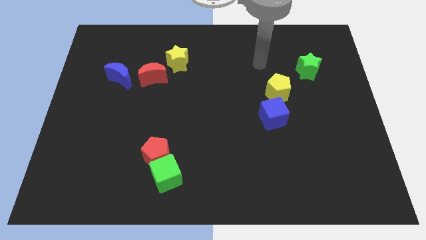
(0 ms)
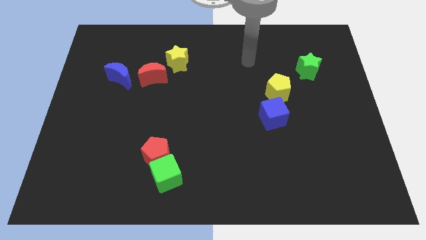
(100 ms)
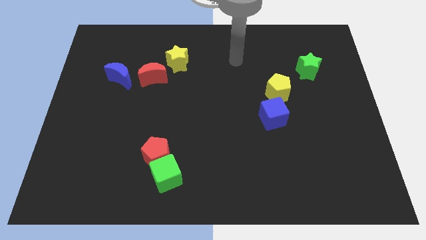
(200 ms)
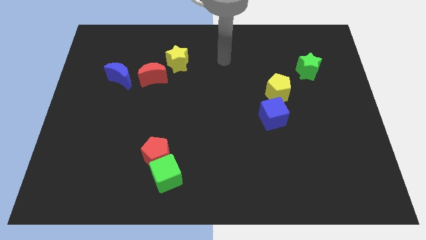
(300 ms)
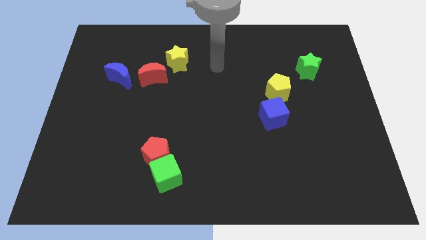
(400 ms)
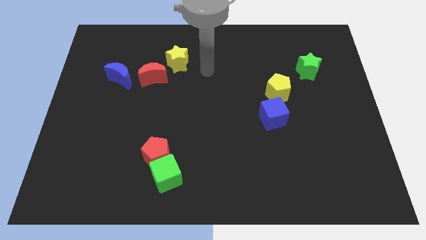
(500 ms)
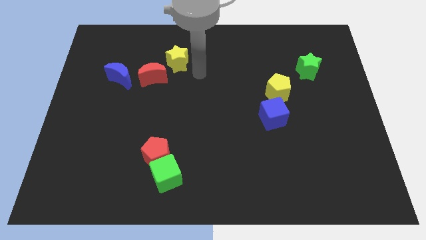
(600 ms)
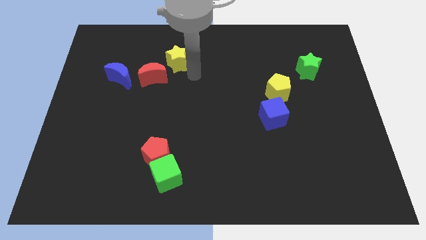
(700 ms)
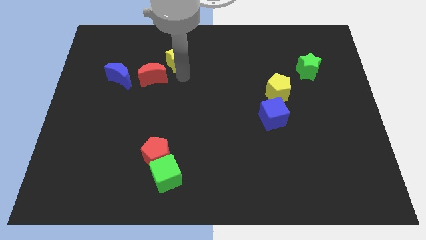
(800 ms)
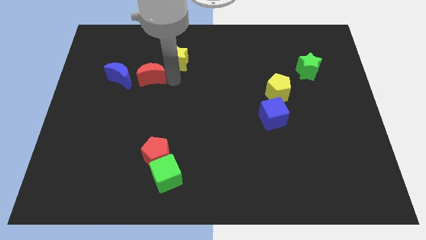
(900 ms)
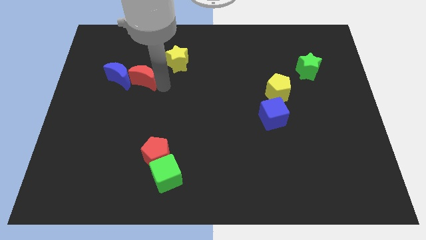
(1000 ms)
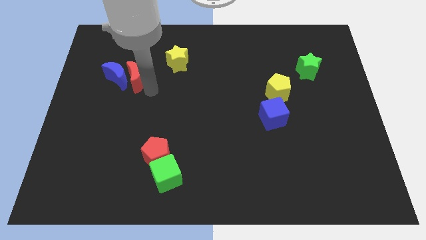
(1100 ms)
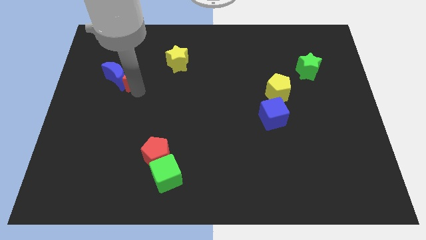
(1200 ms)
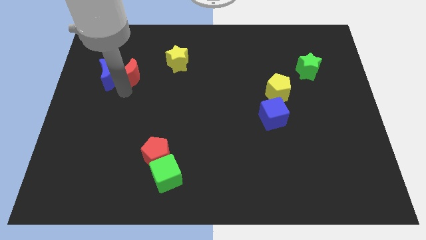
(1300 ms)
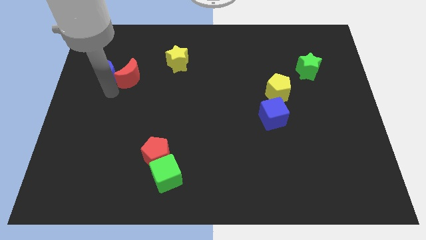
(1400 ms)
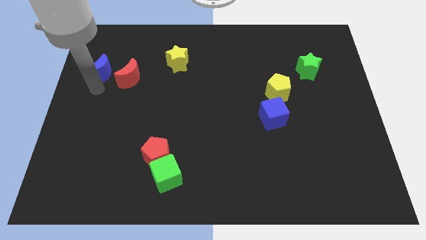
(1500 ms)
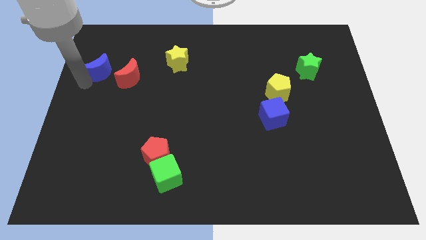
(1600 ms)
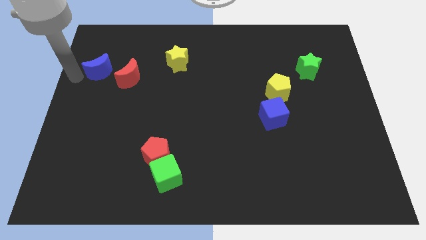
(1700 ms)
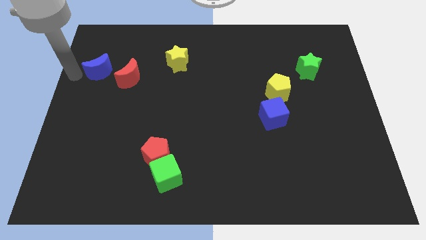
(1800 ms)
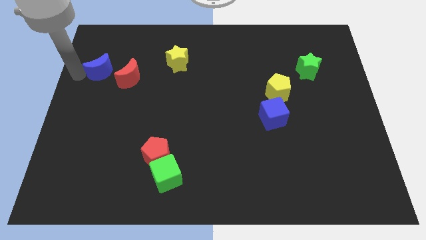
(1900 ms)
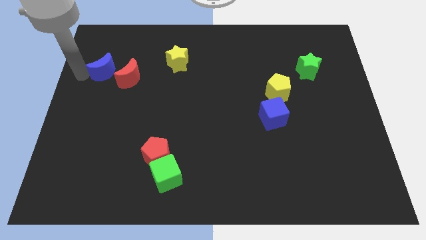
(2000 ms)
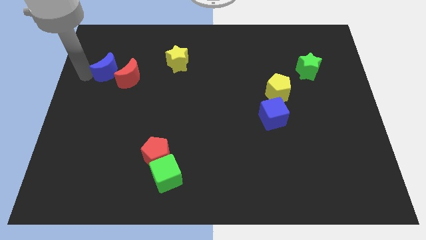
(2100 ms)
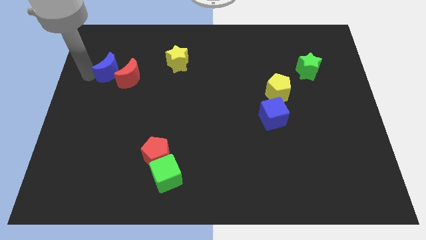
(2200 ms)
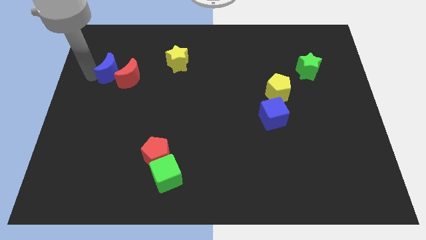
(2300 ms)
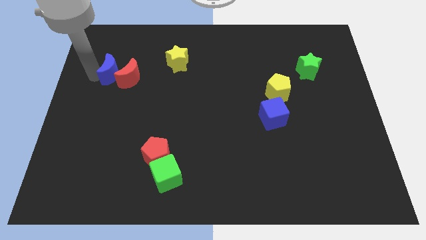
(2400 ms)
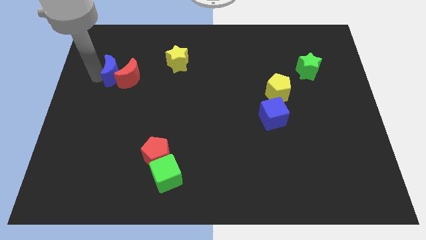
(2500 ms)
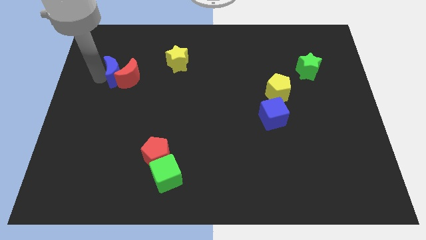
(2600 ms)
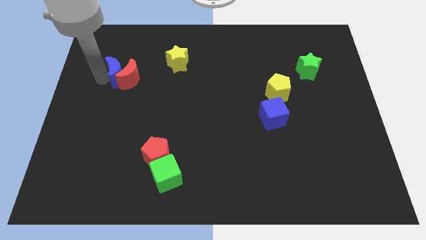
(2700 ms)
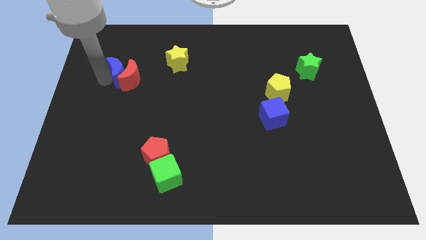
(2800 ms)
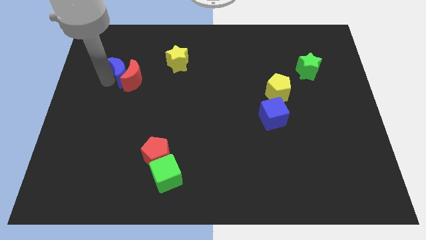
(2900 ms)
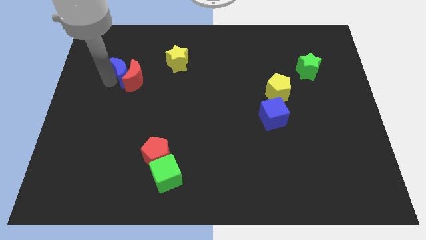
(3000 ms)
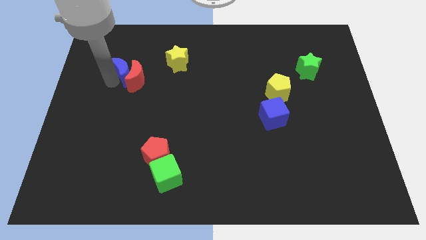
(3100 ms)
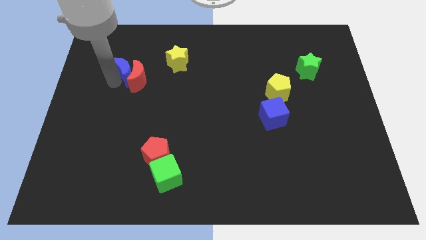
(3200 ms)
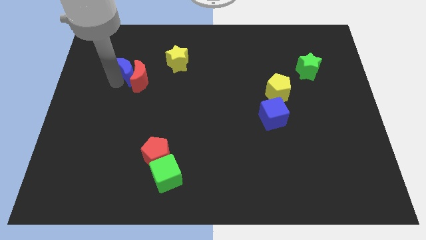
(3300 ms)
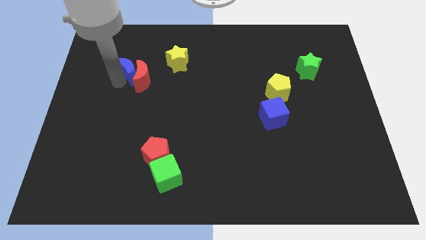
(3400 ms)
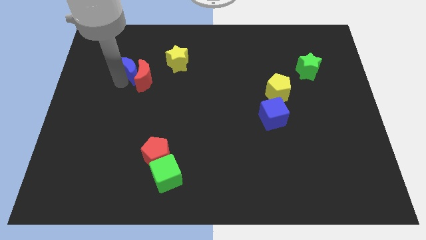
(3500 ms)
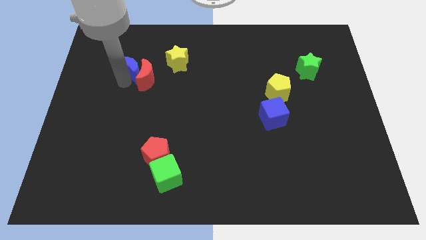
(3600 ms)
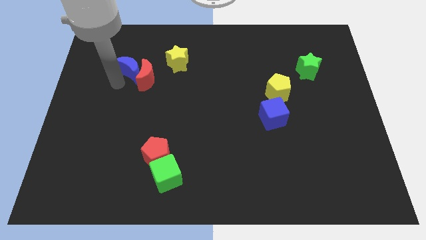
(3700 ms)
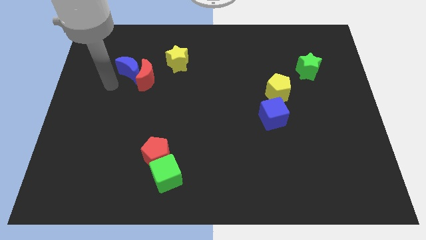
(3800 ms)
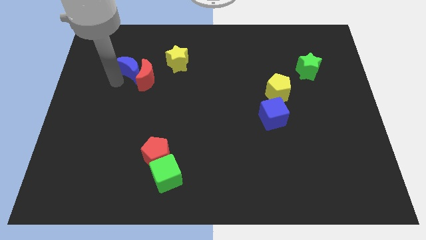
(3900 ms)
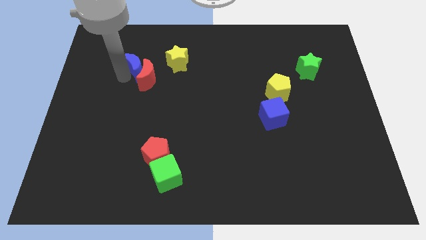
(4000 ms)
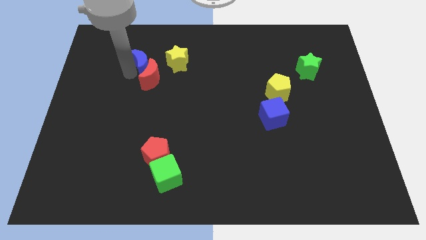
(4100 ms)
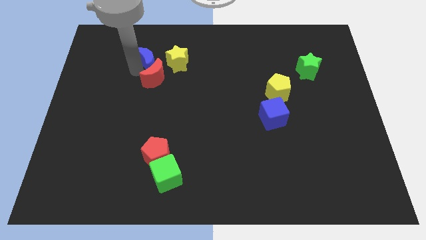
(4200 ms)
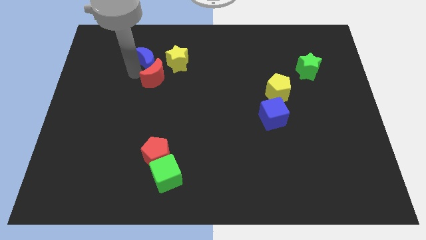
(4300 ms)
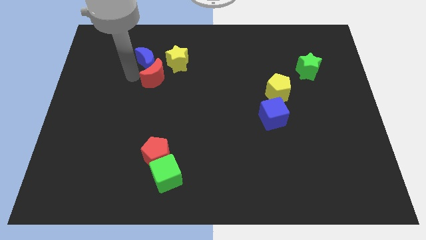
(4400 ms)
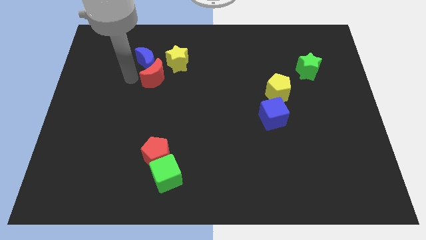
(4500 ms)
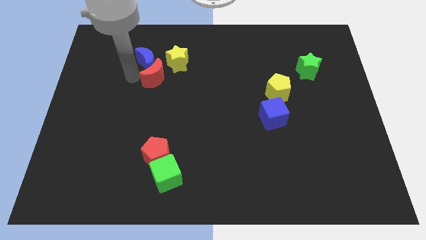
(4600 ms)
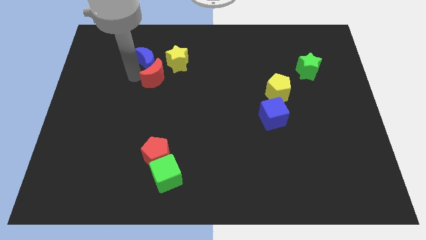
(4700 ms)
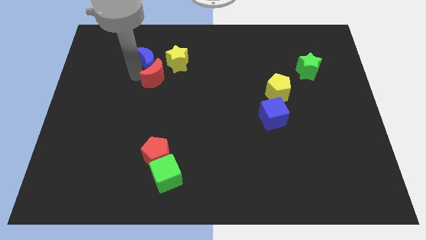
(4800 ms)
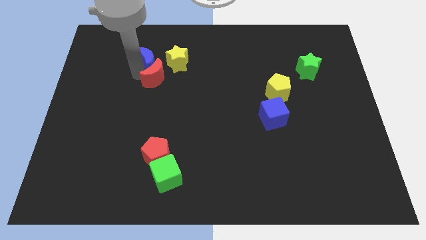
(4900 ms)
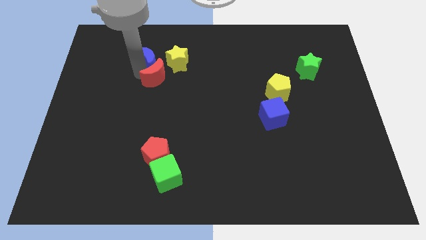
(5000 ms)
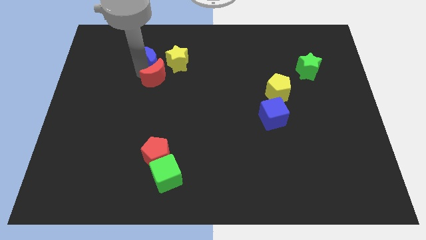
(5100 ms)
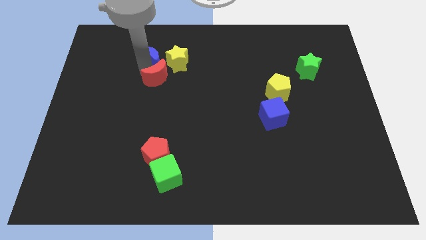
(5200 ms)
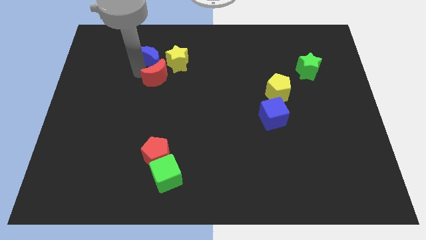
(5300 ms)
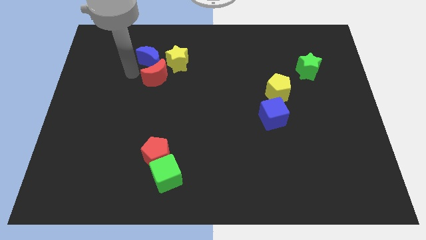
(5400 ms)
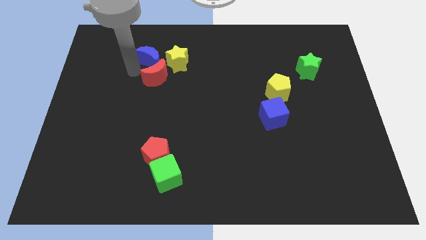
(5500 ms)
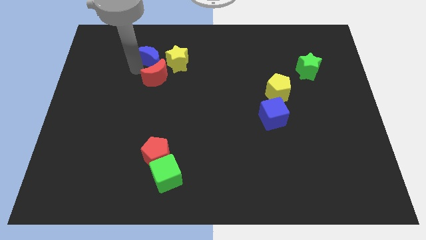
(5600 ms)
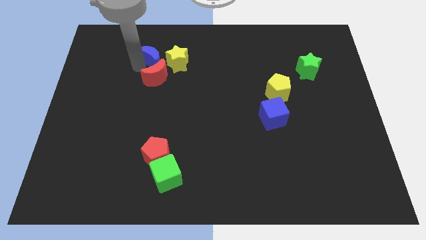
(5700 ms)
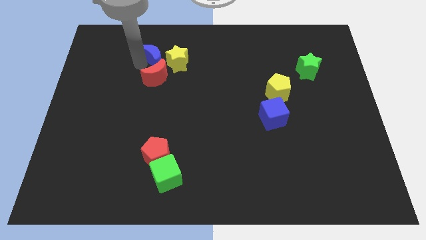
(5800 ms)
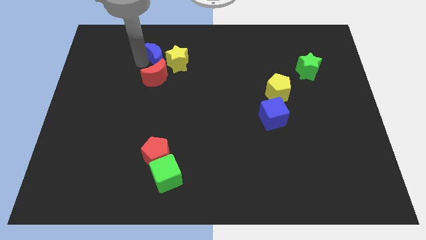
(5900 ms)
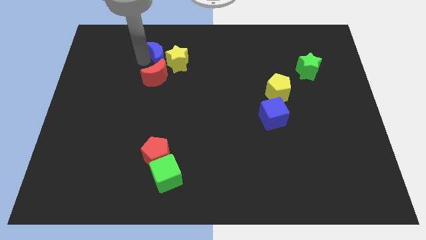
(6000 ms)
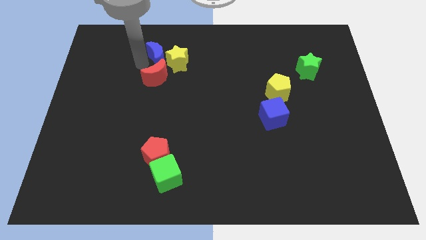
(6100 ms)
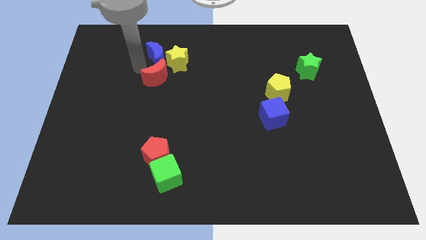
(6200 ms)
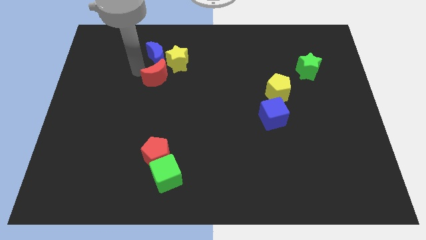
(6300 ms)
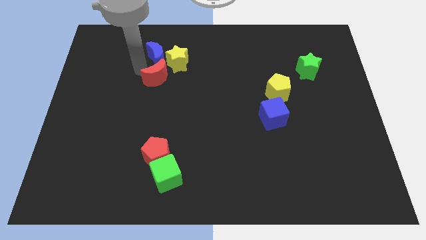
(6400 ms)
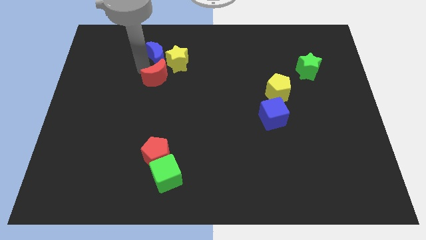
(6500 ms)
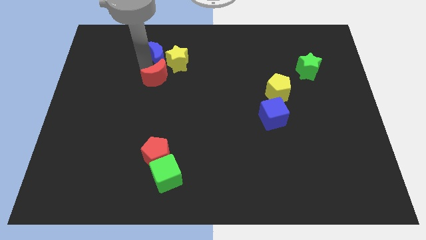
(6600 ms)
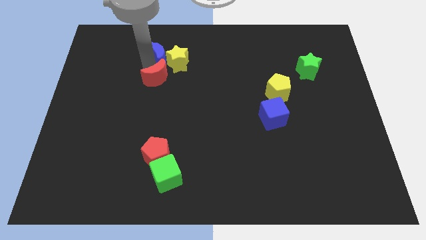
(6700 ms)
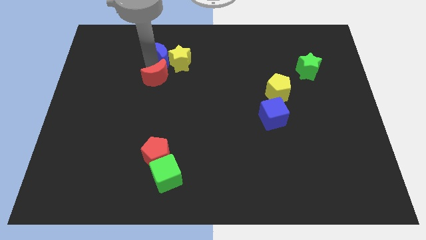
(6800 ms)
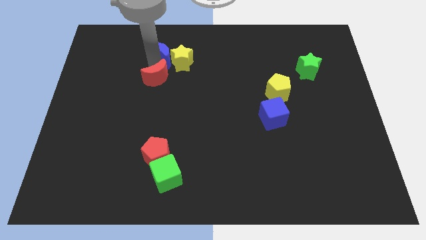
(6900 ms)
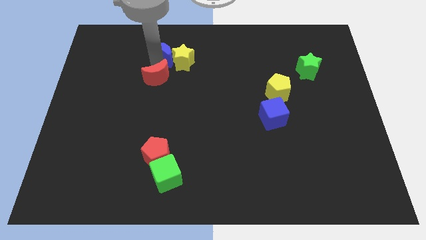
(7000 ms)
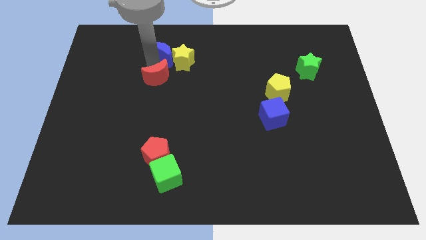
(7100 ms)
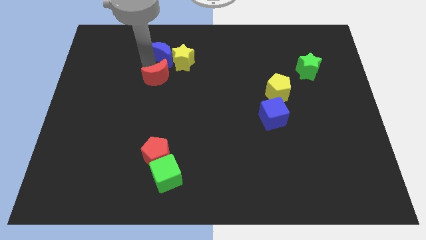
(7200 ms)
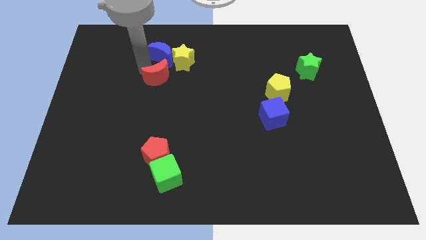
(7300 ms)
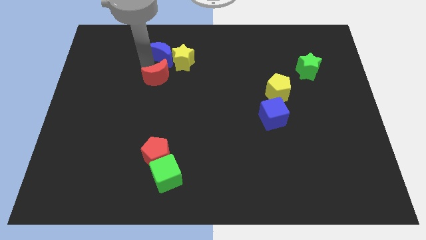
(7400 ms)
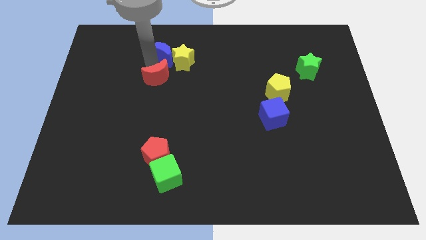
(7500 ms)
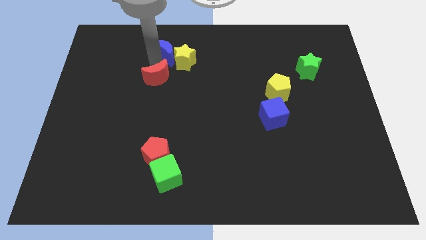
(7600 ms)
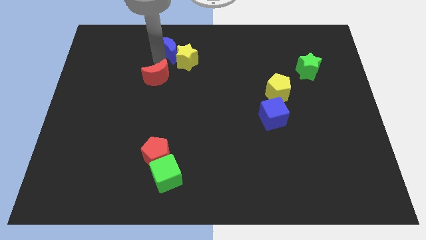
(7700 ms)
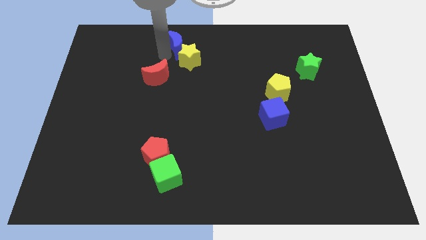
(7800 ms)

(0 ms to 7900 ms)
move the blue moon to the towards your base
